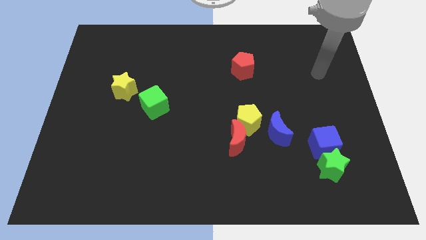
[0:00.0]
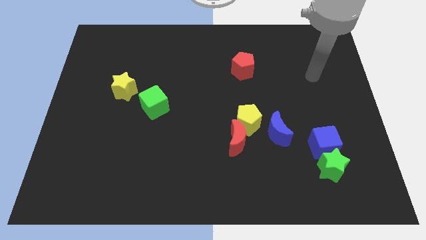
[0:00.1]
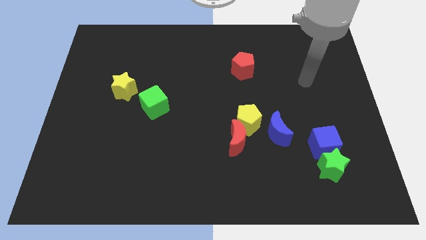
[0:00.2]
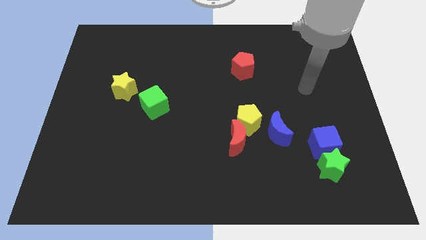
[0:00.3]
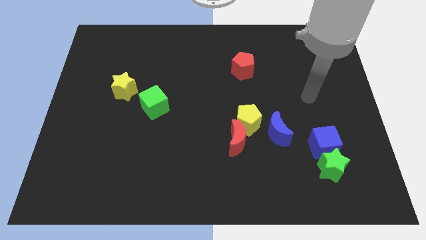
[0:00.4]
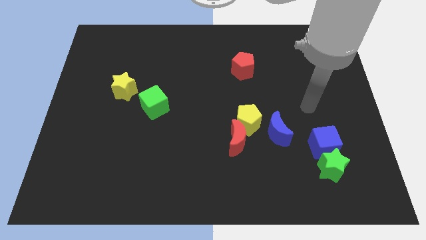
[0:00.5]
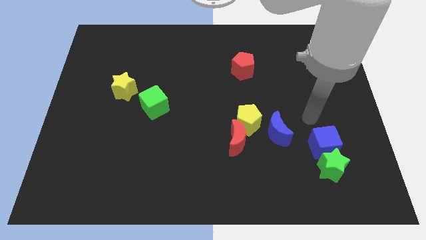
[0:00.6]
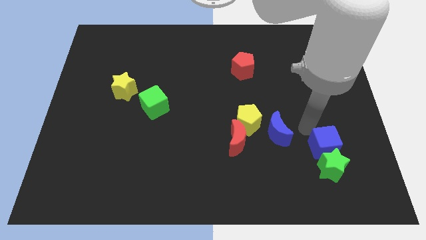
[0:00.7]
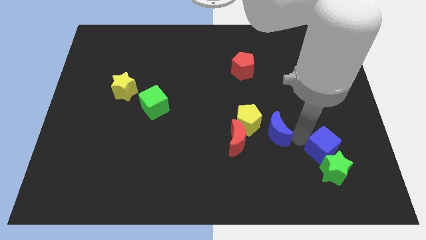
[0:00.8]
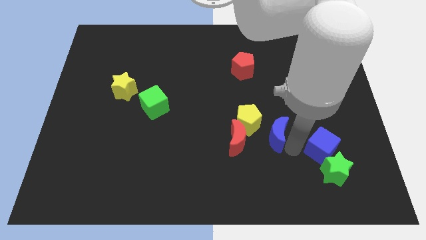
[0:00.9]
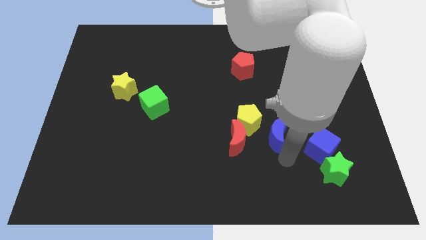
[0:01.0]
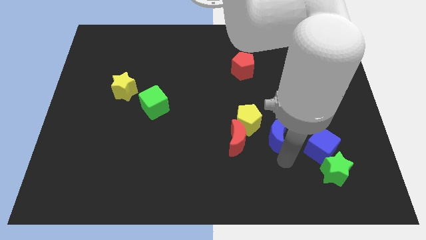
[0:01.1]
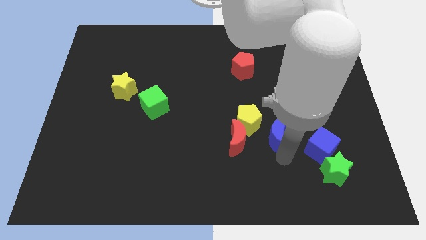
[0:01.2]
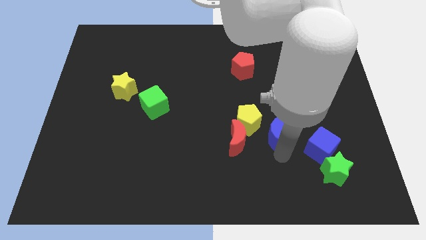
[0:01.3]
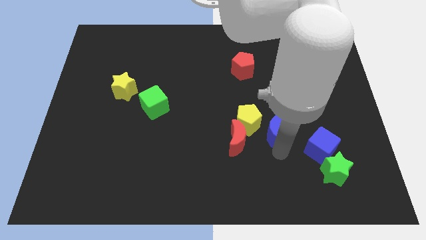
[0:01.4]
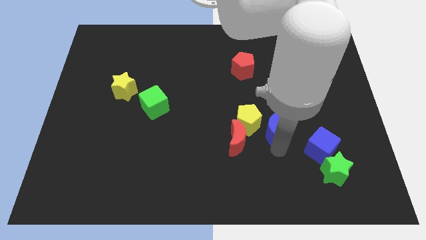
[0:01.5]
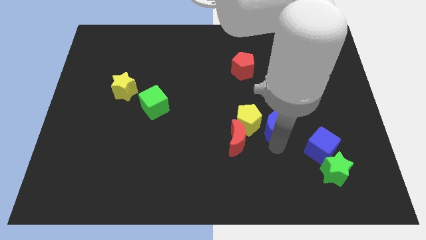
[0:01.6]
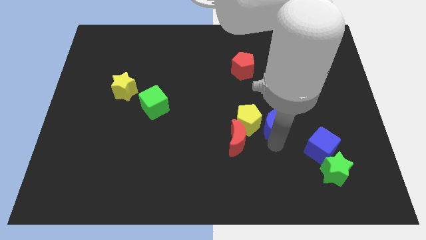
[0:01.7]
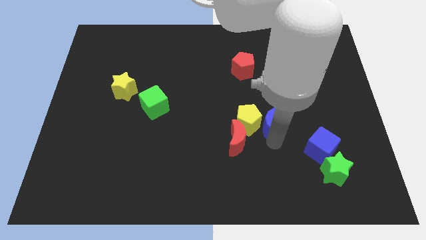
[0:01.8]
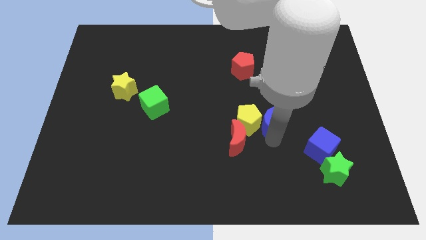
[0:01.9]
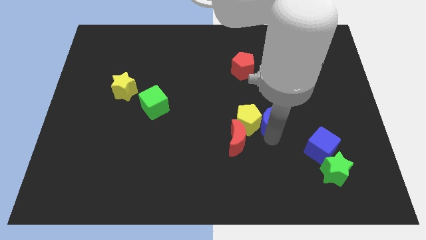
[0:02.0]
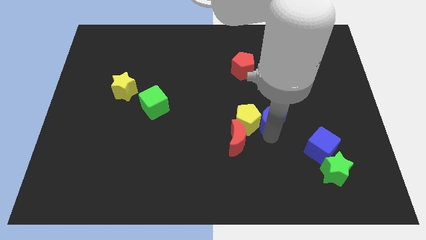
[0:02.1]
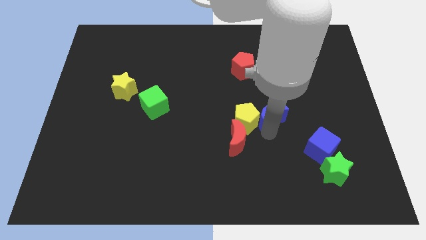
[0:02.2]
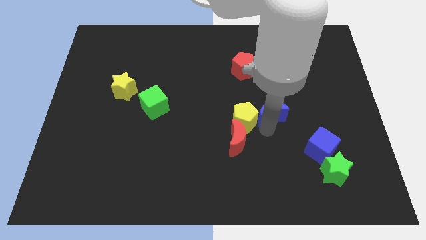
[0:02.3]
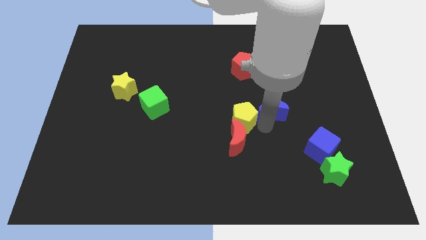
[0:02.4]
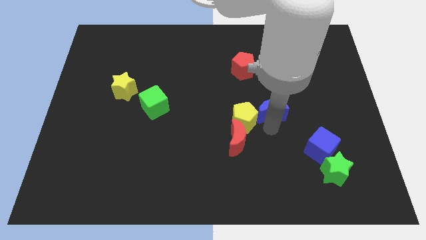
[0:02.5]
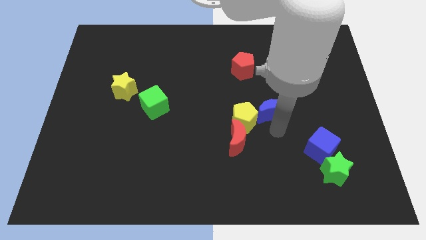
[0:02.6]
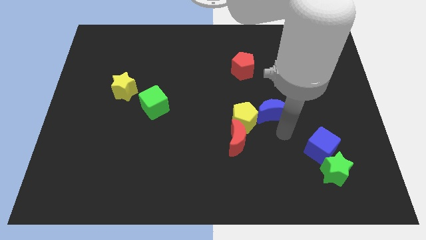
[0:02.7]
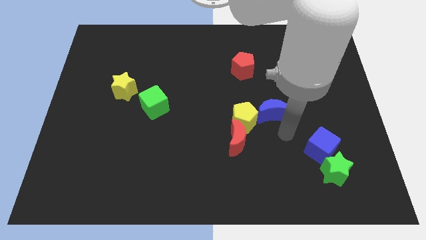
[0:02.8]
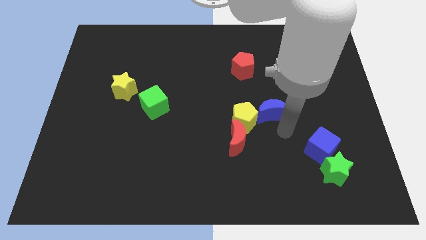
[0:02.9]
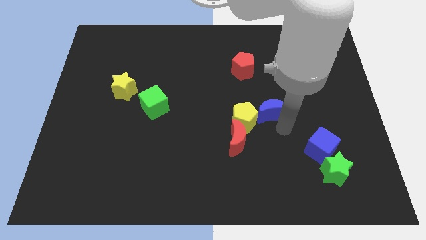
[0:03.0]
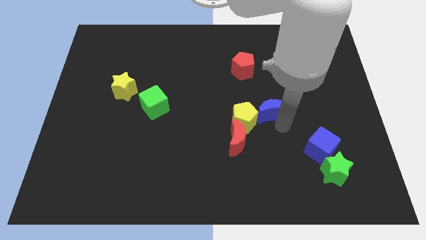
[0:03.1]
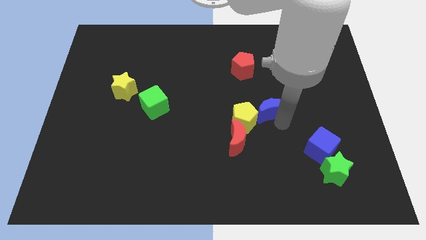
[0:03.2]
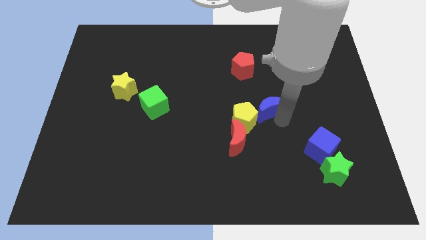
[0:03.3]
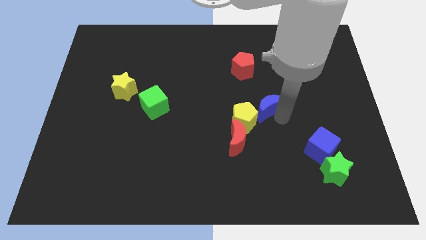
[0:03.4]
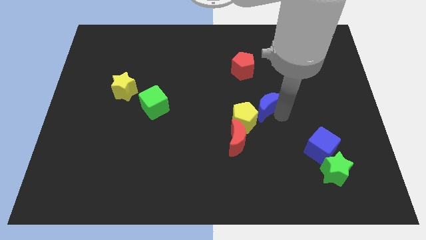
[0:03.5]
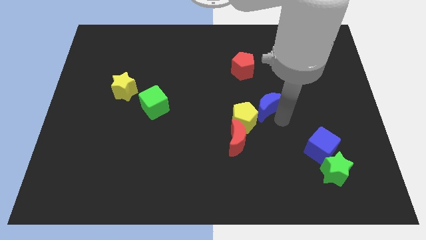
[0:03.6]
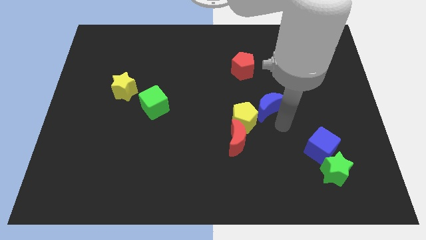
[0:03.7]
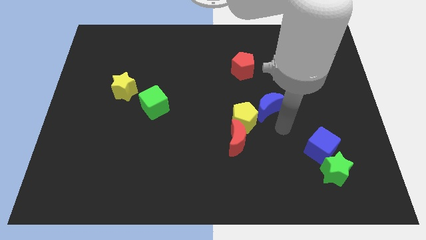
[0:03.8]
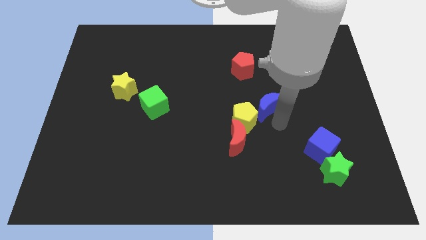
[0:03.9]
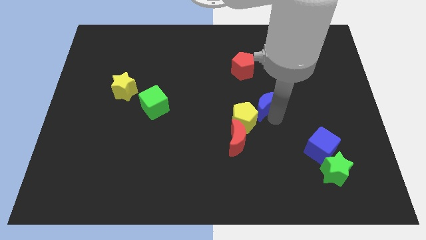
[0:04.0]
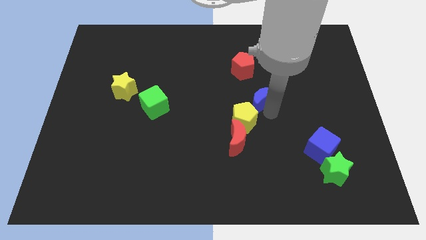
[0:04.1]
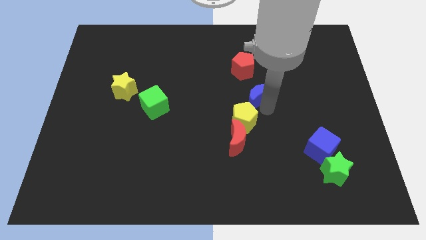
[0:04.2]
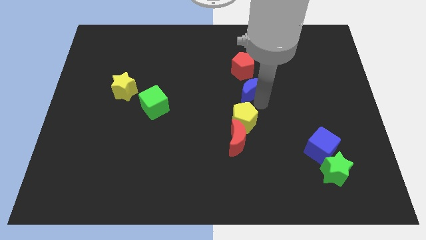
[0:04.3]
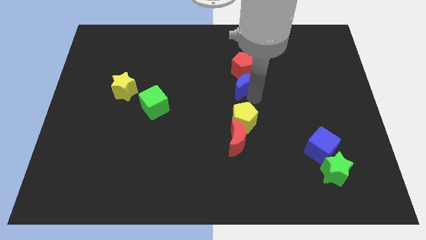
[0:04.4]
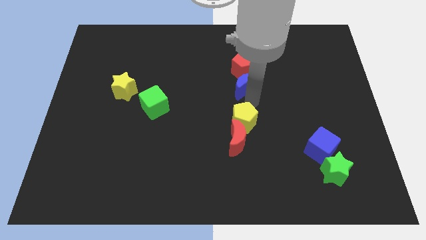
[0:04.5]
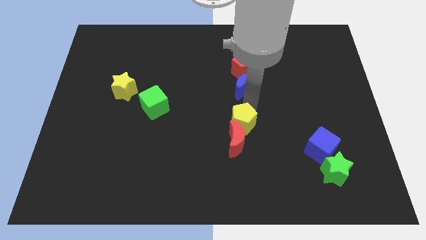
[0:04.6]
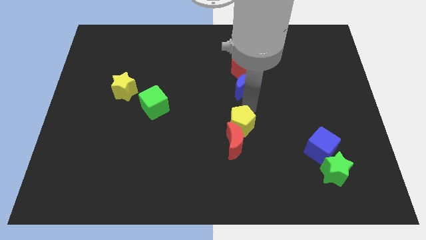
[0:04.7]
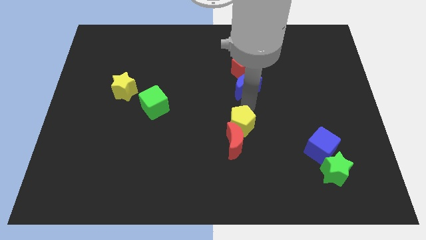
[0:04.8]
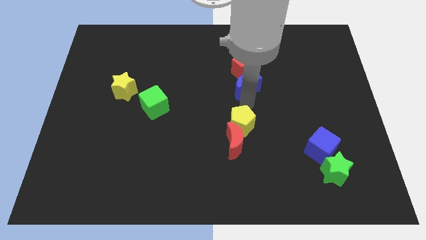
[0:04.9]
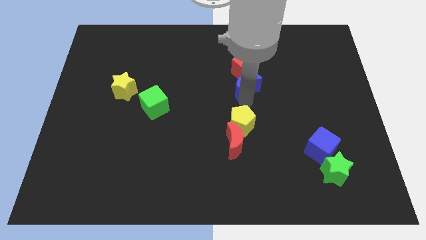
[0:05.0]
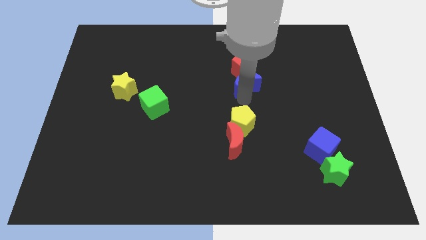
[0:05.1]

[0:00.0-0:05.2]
slide the blue moon next to the red pentagon

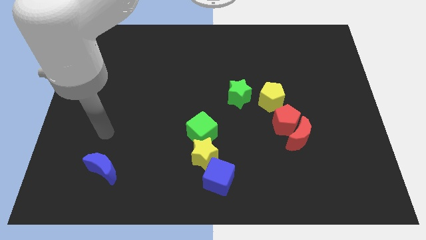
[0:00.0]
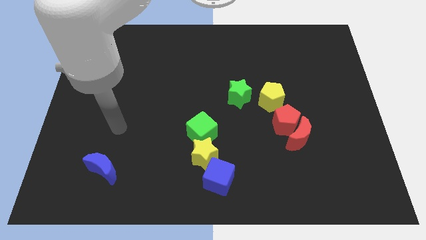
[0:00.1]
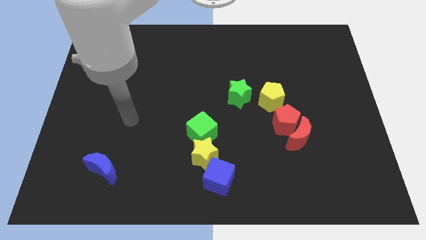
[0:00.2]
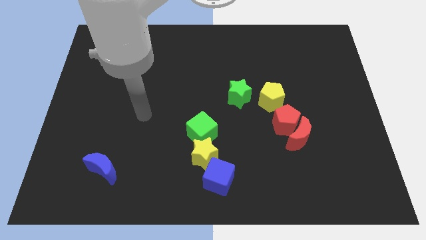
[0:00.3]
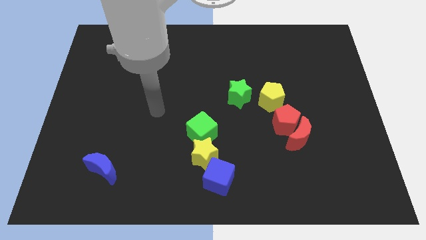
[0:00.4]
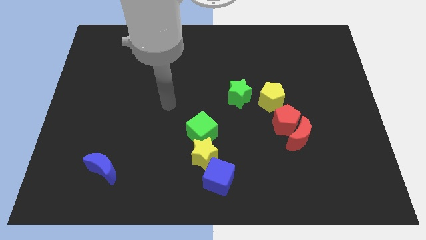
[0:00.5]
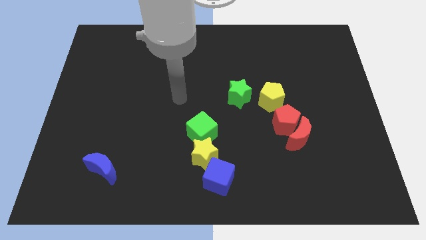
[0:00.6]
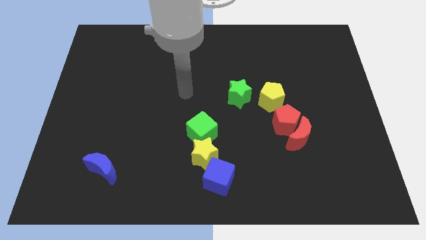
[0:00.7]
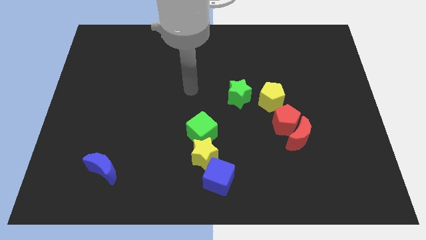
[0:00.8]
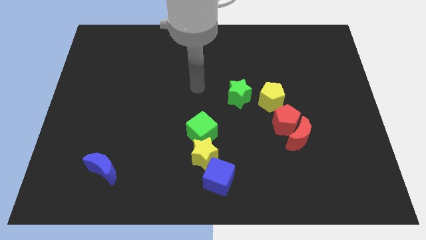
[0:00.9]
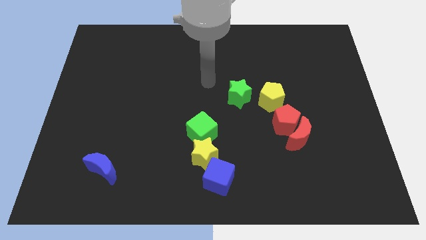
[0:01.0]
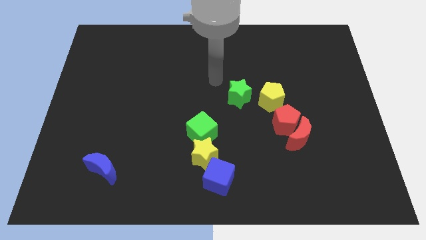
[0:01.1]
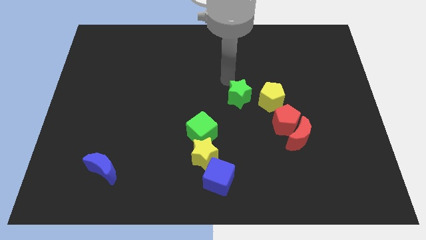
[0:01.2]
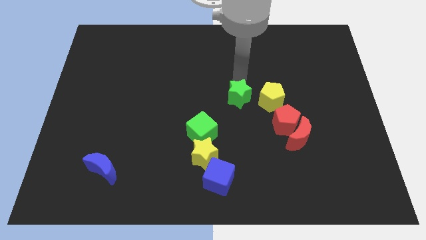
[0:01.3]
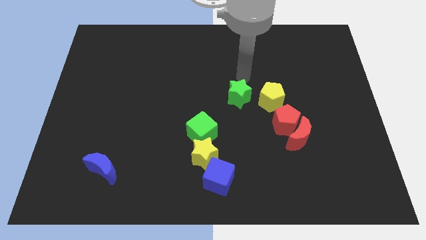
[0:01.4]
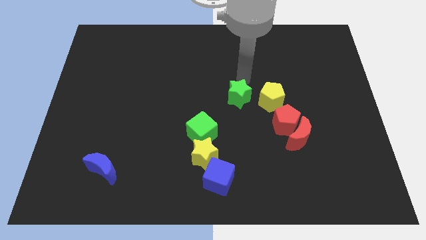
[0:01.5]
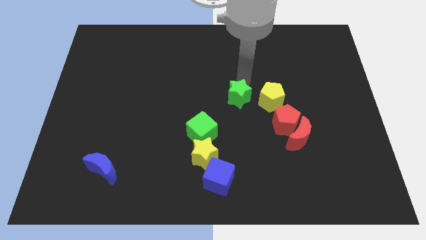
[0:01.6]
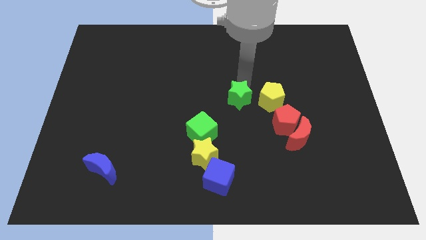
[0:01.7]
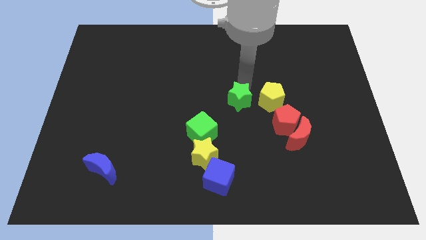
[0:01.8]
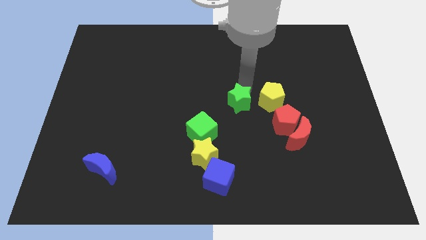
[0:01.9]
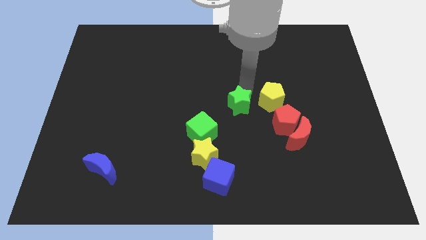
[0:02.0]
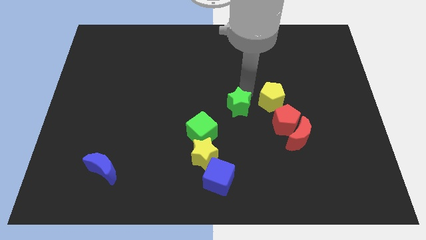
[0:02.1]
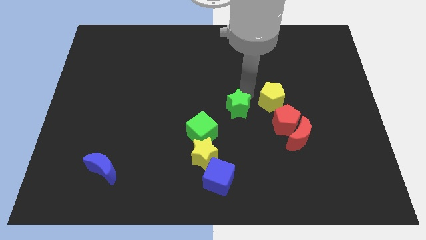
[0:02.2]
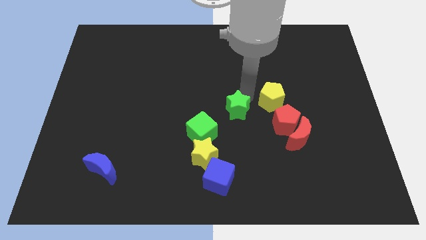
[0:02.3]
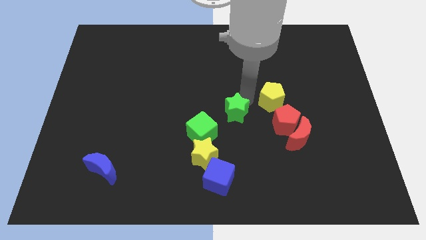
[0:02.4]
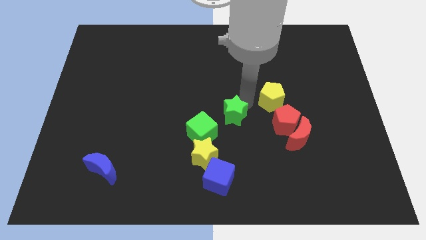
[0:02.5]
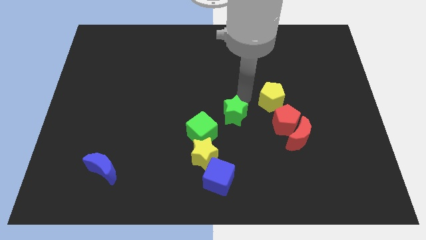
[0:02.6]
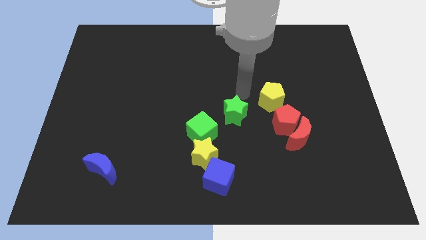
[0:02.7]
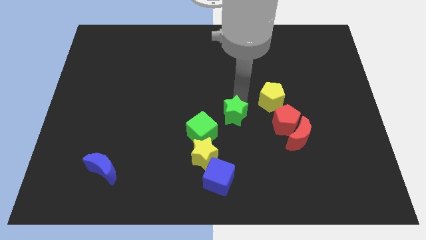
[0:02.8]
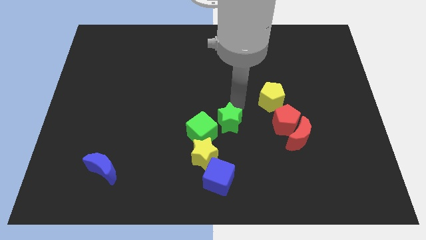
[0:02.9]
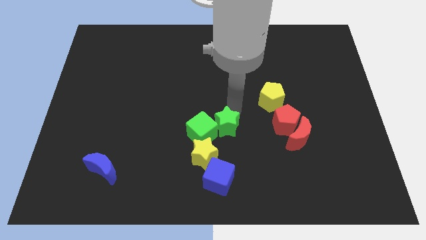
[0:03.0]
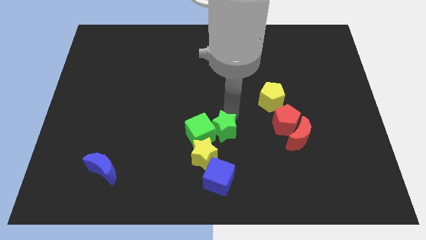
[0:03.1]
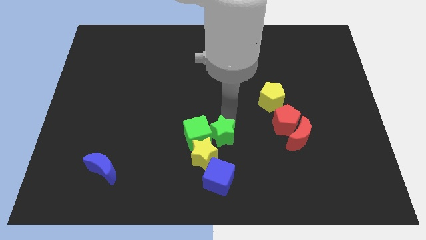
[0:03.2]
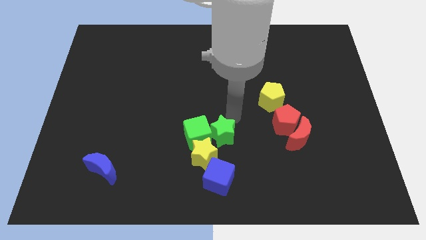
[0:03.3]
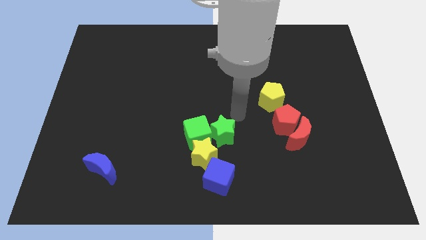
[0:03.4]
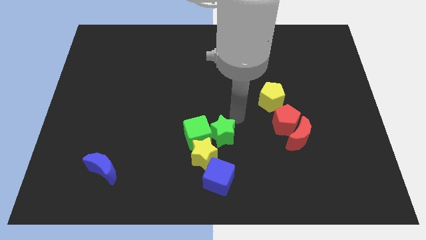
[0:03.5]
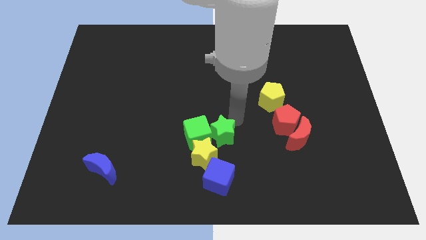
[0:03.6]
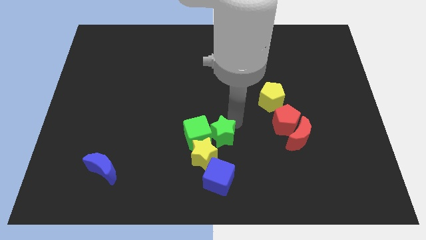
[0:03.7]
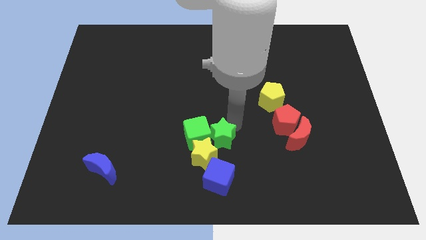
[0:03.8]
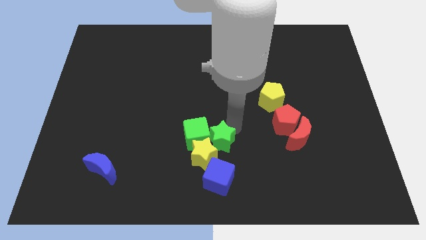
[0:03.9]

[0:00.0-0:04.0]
move the green star to the yellow star
